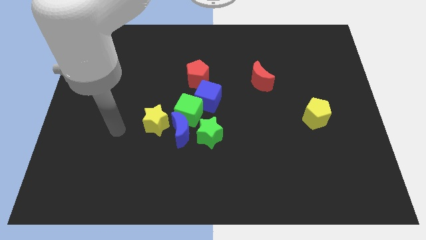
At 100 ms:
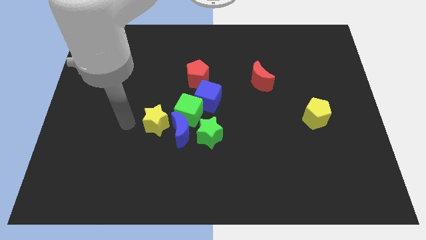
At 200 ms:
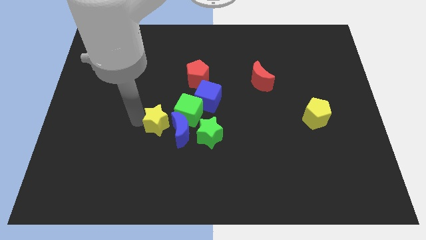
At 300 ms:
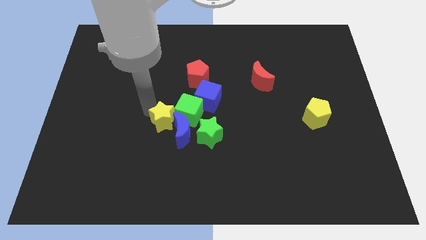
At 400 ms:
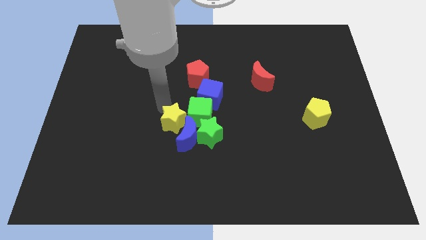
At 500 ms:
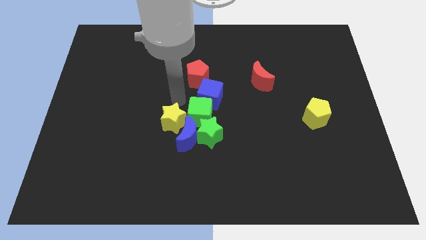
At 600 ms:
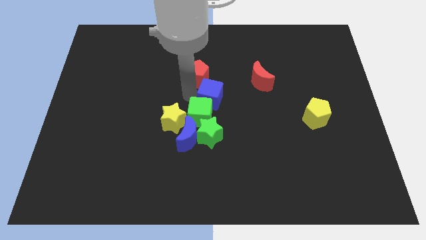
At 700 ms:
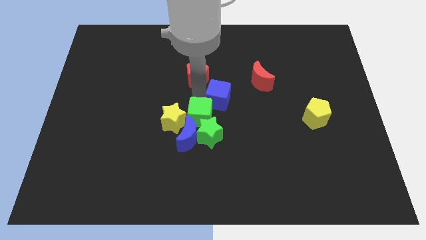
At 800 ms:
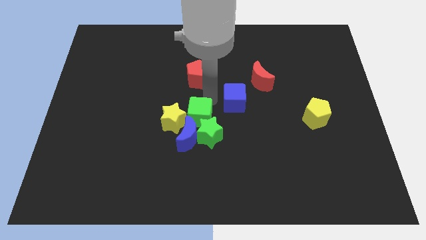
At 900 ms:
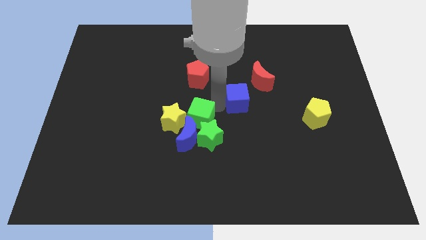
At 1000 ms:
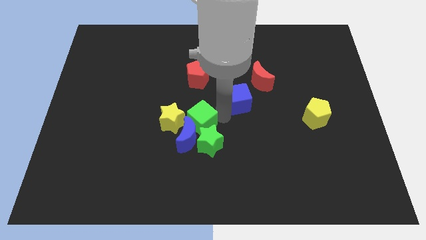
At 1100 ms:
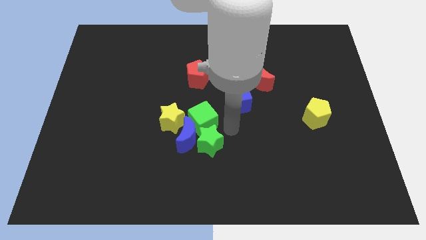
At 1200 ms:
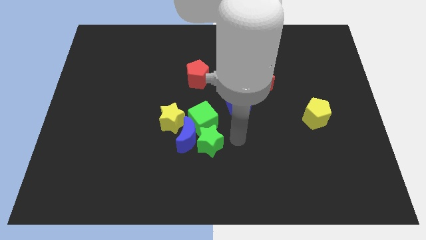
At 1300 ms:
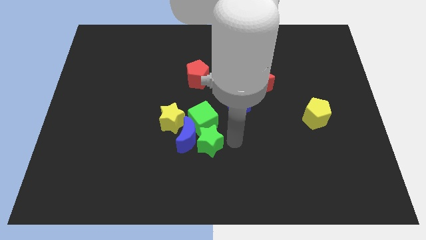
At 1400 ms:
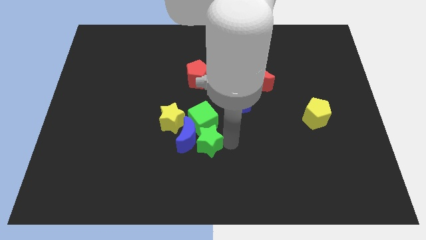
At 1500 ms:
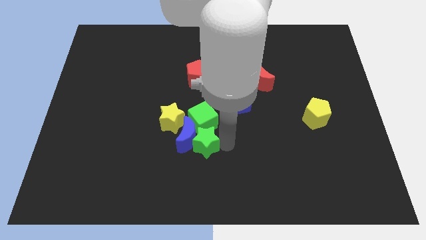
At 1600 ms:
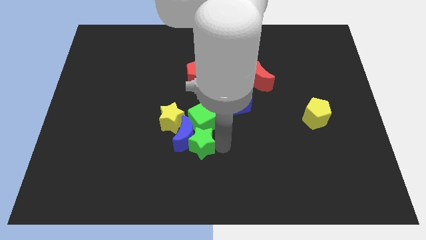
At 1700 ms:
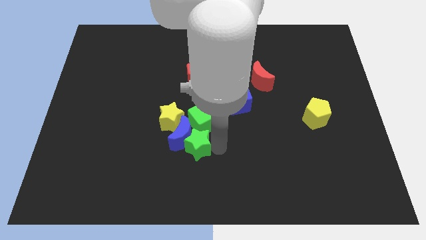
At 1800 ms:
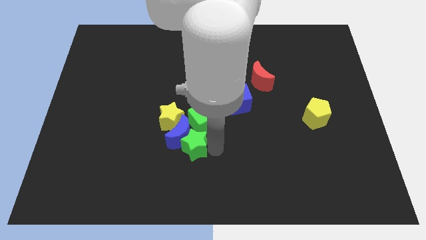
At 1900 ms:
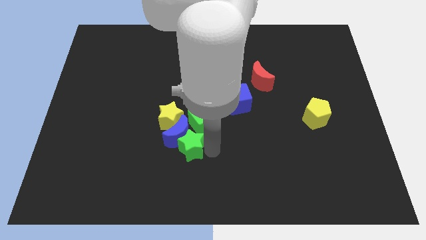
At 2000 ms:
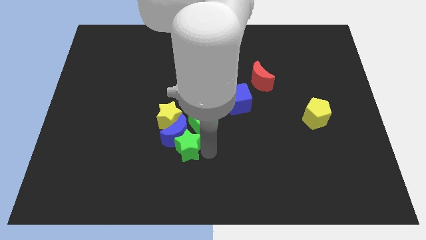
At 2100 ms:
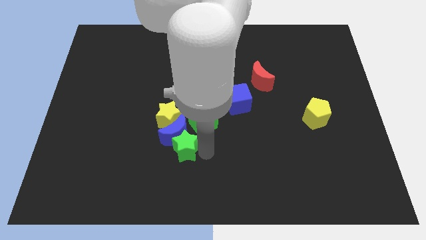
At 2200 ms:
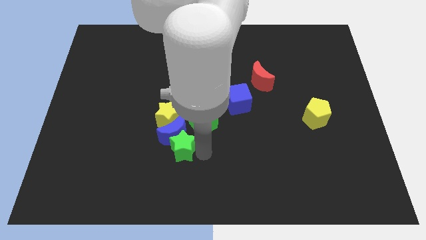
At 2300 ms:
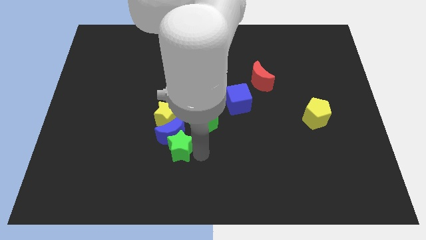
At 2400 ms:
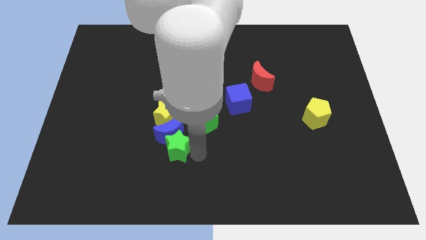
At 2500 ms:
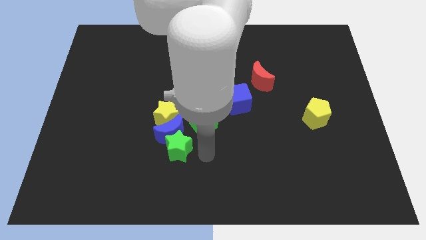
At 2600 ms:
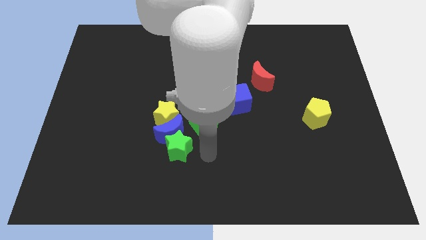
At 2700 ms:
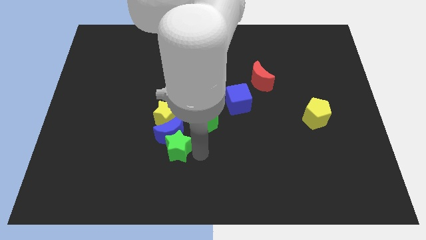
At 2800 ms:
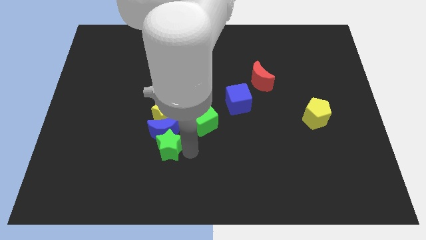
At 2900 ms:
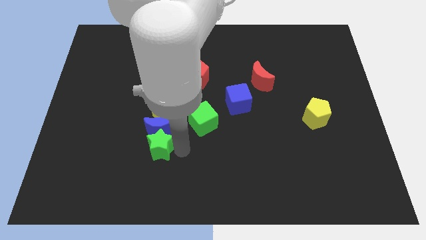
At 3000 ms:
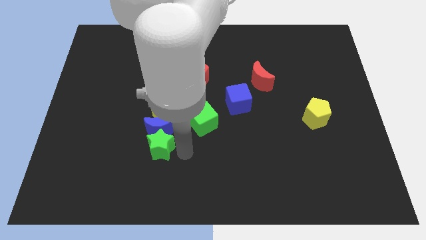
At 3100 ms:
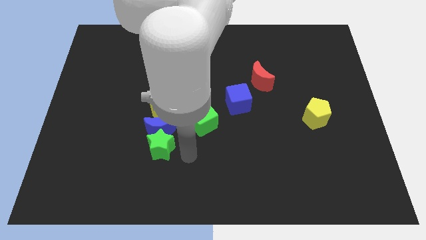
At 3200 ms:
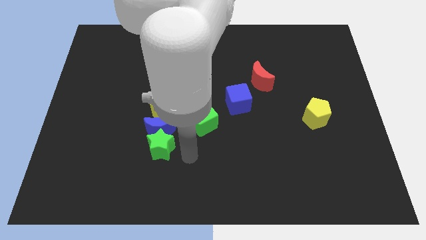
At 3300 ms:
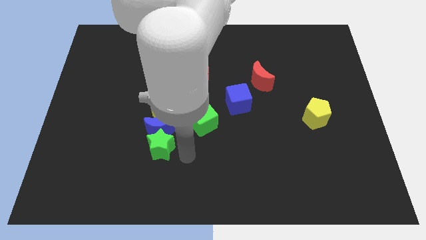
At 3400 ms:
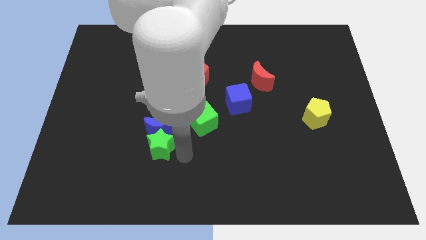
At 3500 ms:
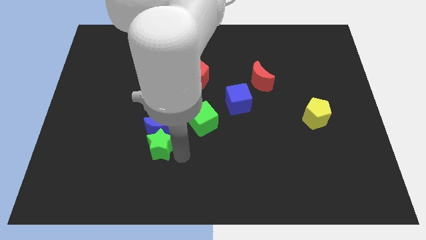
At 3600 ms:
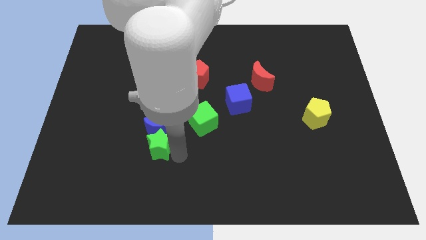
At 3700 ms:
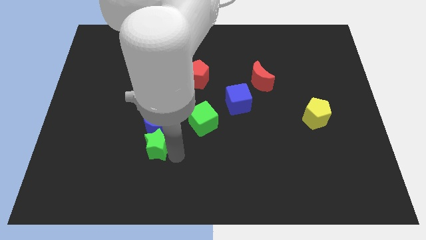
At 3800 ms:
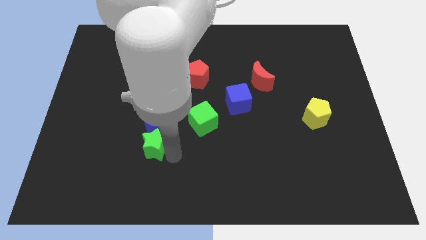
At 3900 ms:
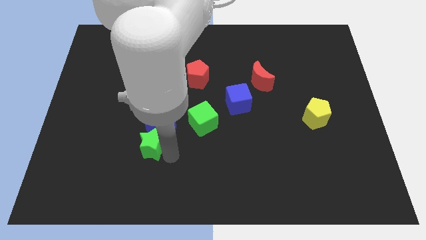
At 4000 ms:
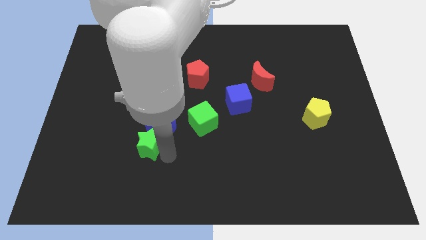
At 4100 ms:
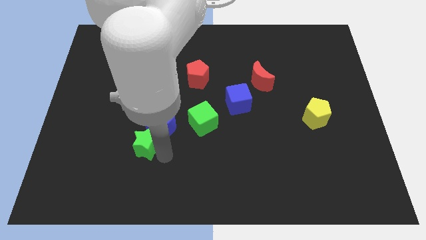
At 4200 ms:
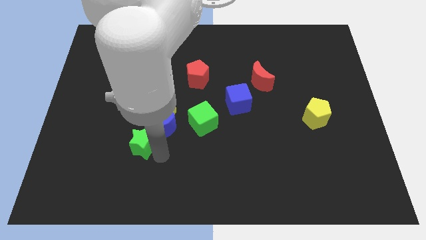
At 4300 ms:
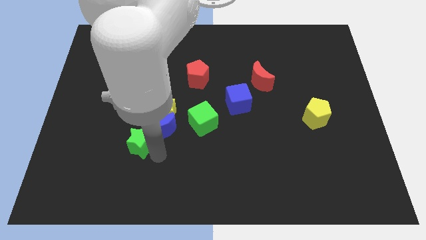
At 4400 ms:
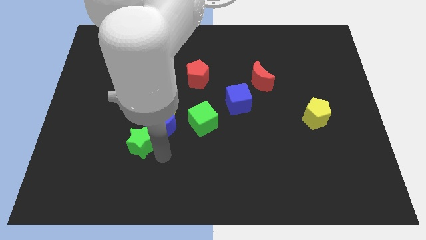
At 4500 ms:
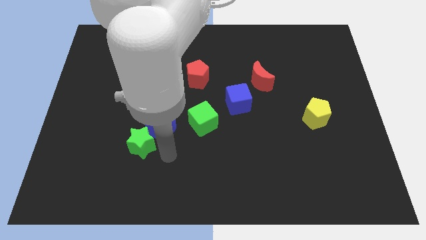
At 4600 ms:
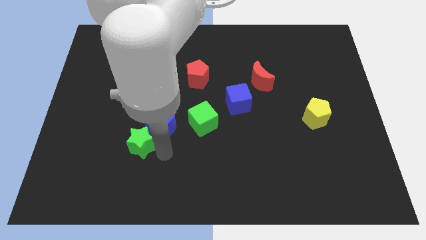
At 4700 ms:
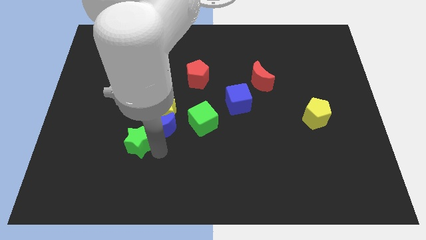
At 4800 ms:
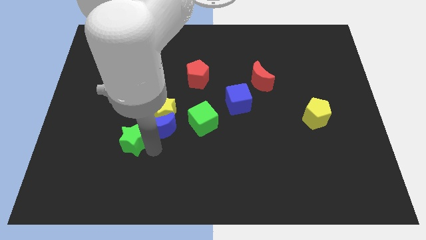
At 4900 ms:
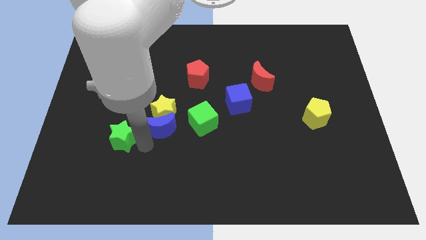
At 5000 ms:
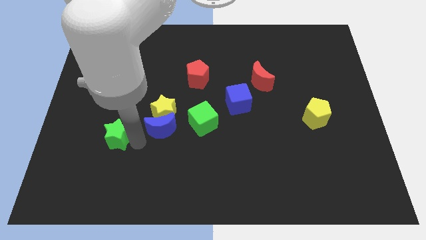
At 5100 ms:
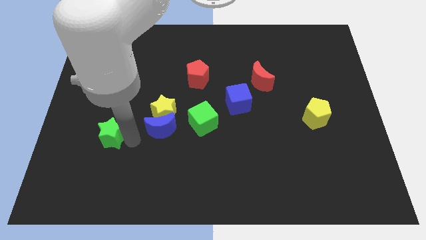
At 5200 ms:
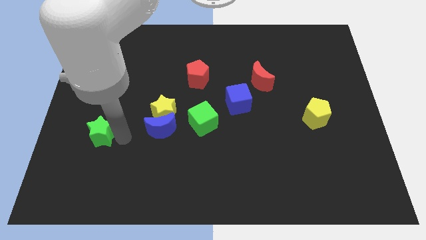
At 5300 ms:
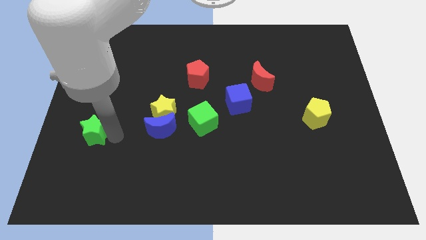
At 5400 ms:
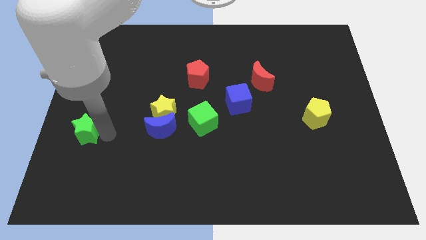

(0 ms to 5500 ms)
move the green star to the left side
